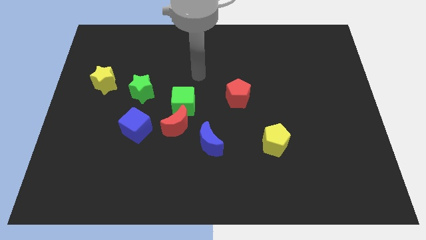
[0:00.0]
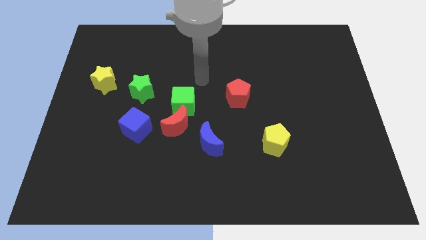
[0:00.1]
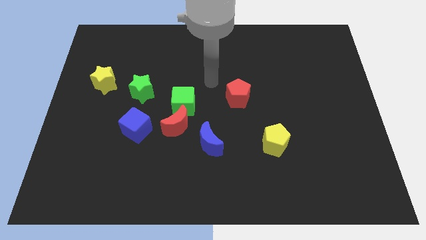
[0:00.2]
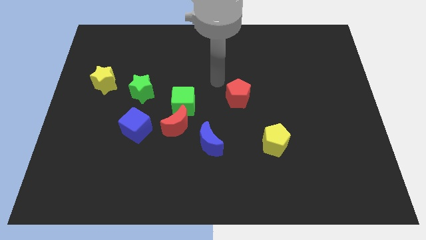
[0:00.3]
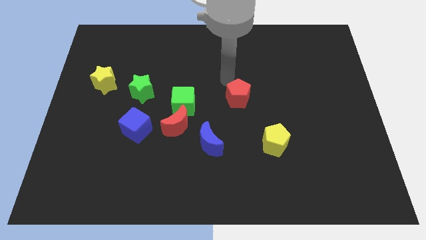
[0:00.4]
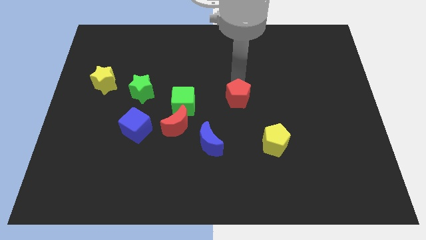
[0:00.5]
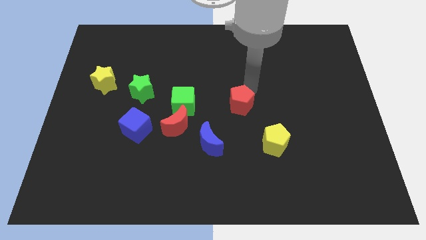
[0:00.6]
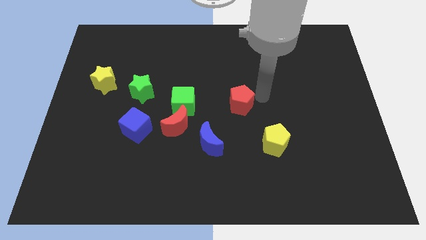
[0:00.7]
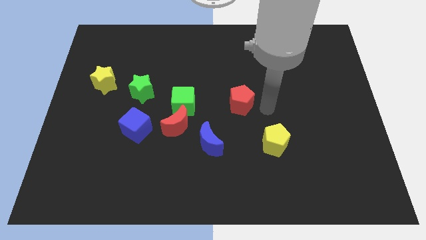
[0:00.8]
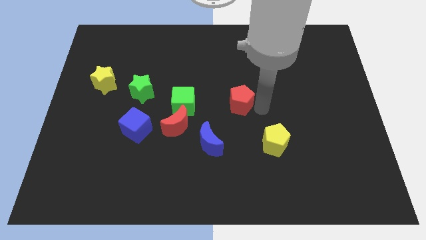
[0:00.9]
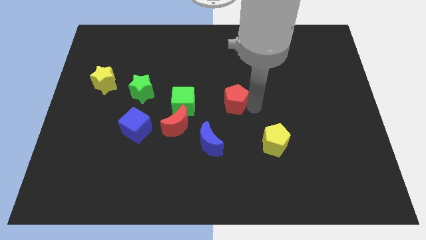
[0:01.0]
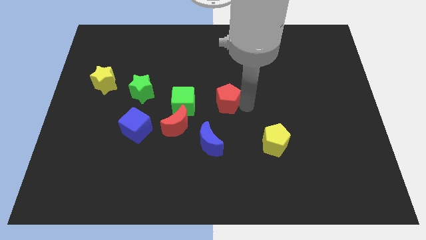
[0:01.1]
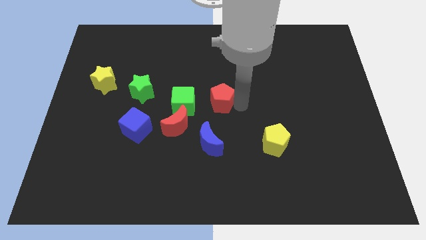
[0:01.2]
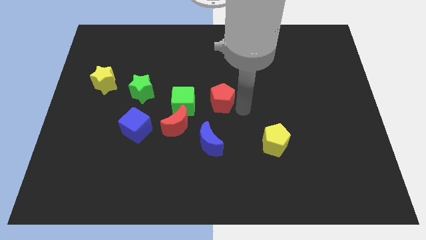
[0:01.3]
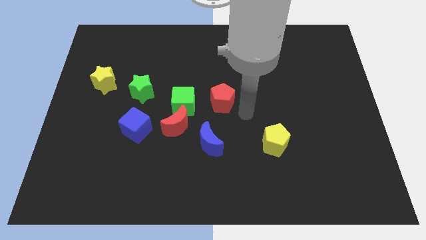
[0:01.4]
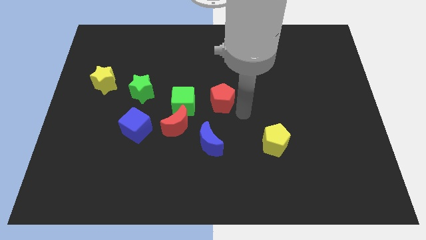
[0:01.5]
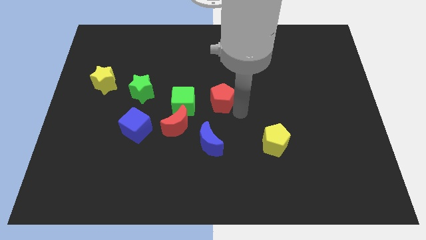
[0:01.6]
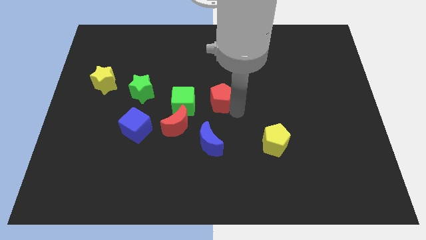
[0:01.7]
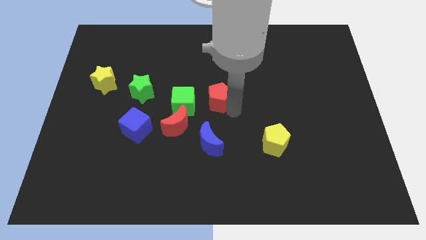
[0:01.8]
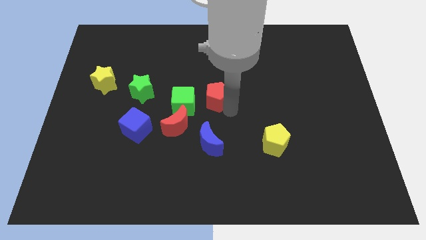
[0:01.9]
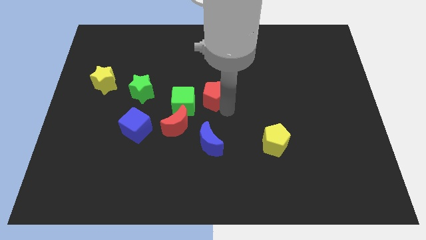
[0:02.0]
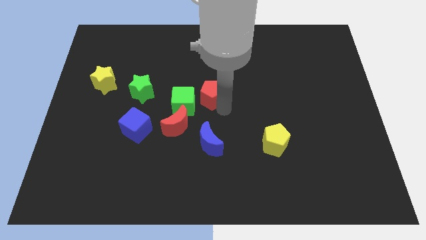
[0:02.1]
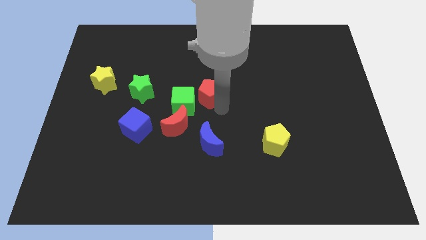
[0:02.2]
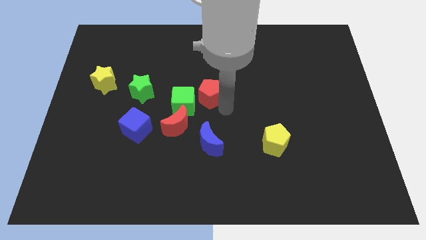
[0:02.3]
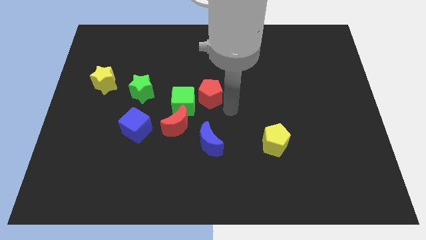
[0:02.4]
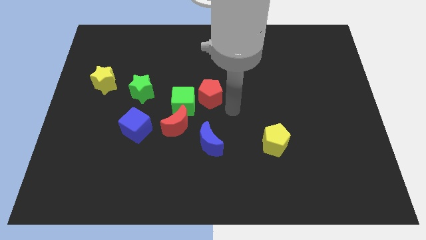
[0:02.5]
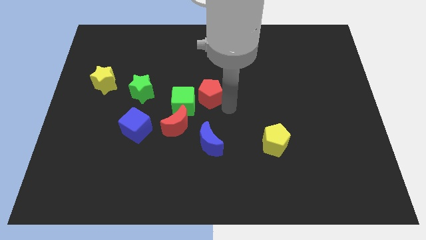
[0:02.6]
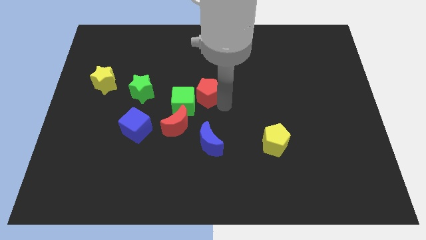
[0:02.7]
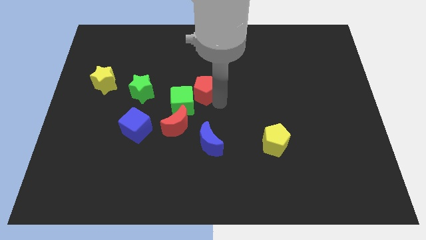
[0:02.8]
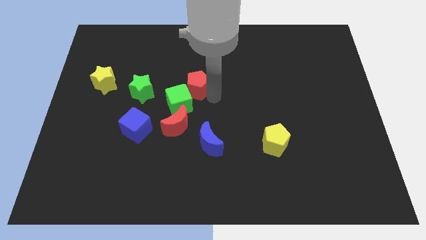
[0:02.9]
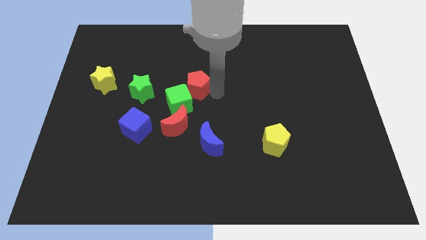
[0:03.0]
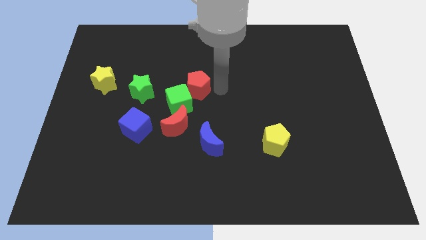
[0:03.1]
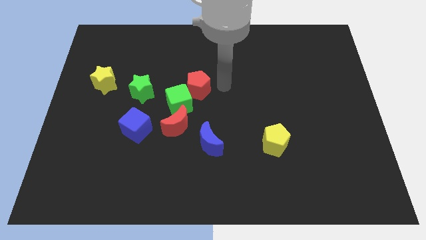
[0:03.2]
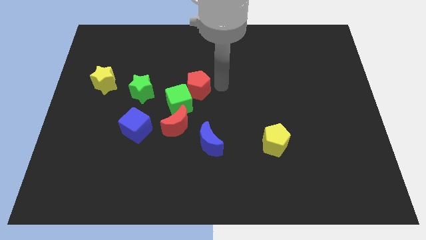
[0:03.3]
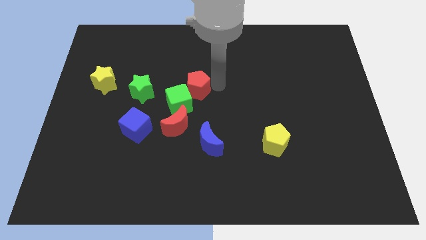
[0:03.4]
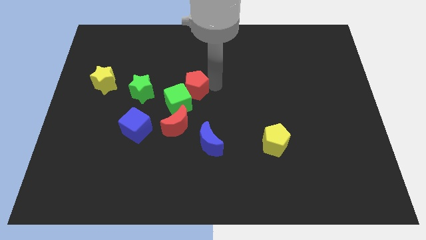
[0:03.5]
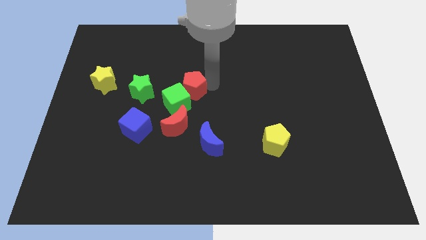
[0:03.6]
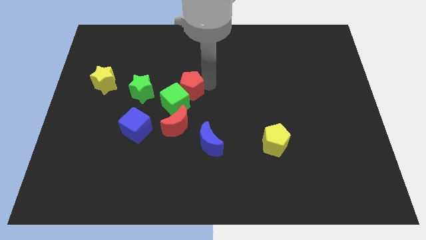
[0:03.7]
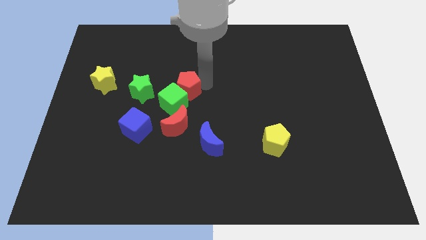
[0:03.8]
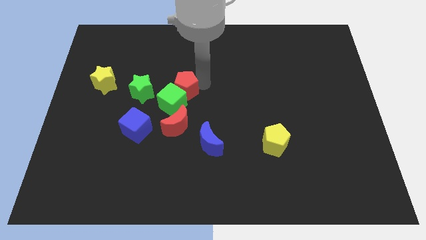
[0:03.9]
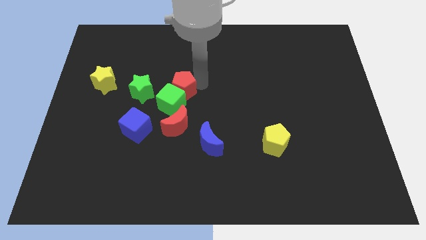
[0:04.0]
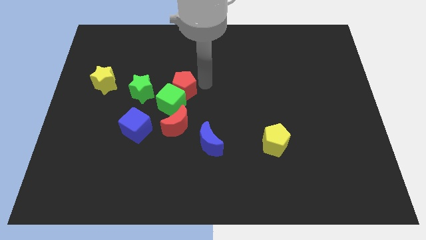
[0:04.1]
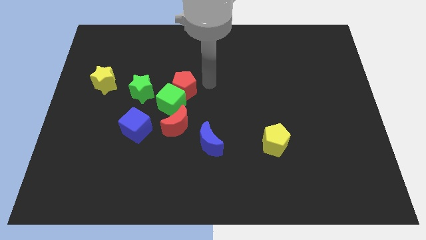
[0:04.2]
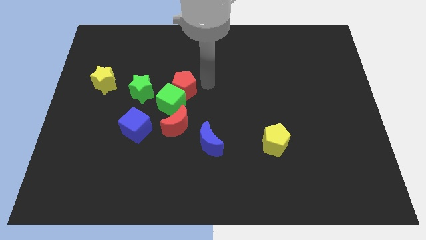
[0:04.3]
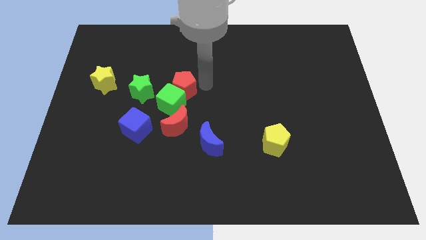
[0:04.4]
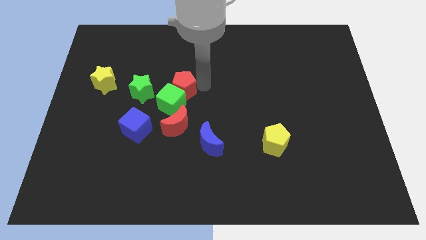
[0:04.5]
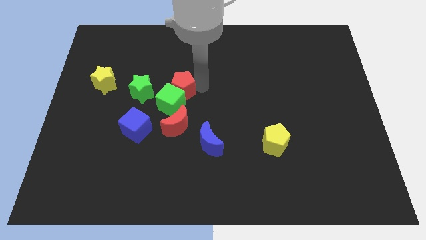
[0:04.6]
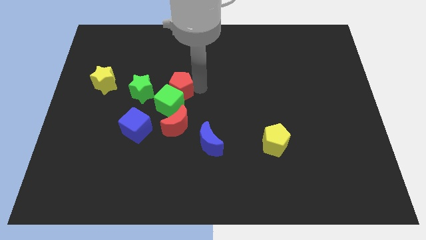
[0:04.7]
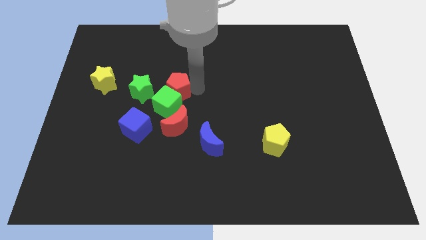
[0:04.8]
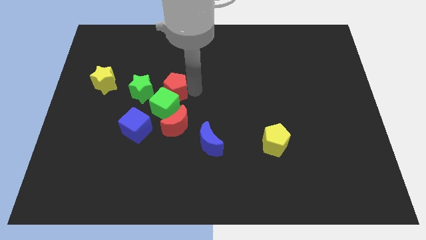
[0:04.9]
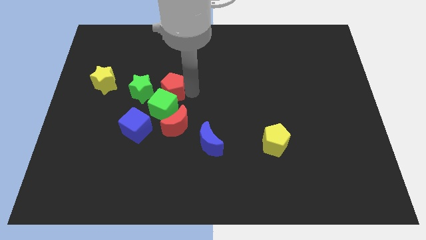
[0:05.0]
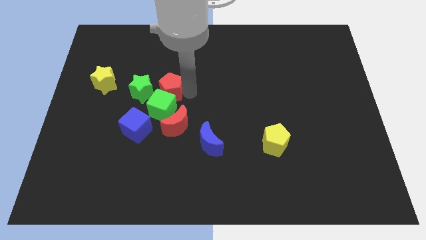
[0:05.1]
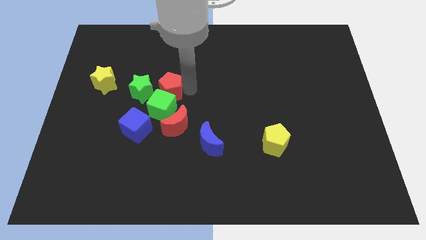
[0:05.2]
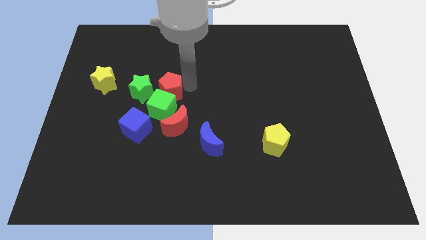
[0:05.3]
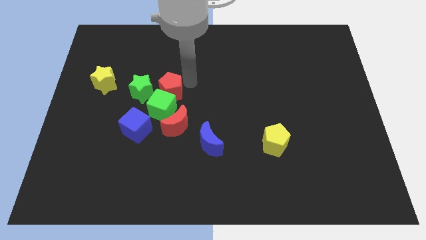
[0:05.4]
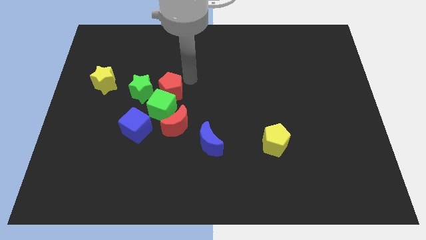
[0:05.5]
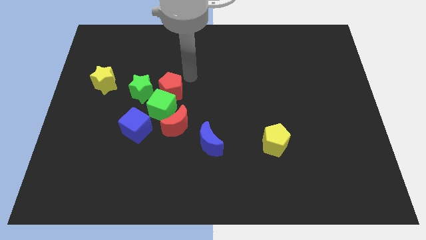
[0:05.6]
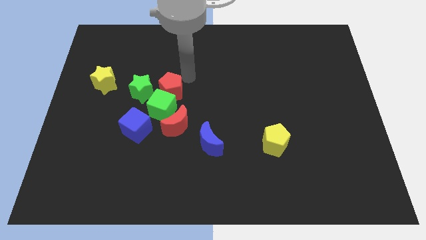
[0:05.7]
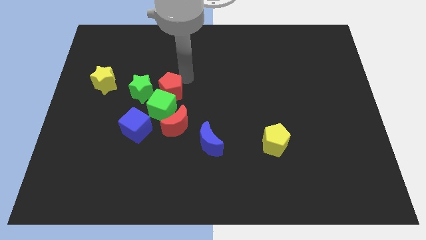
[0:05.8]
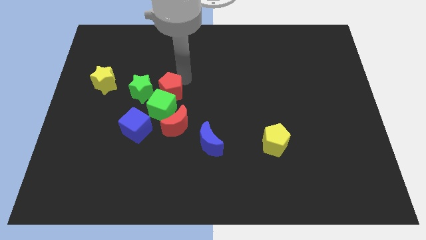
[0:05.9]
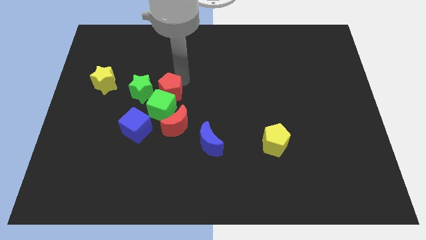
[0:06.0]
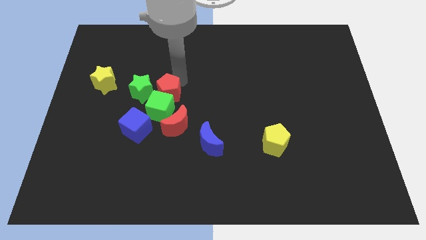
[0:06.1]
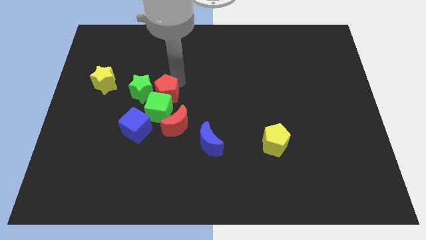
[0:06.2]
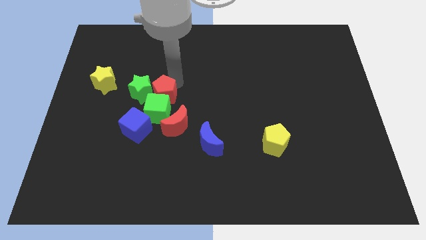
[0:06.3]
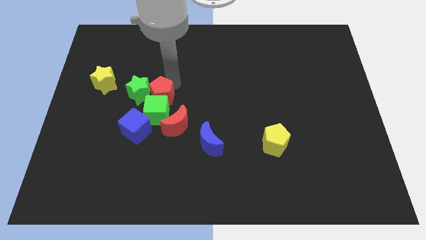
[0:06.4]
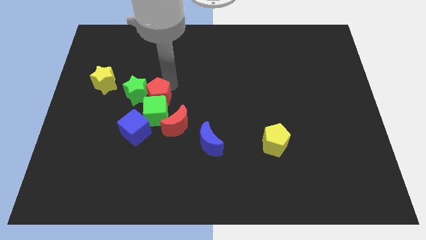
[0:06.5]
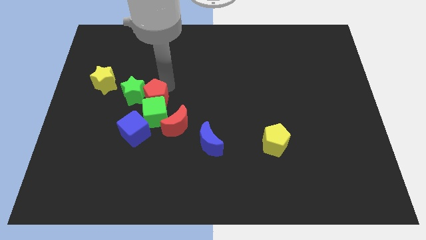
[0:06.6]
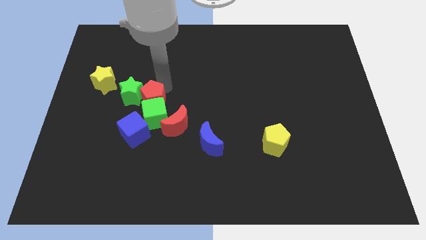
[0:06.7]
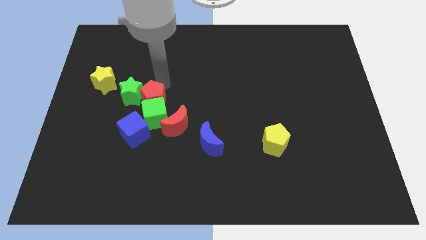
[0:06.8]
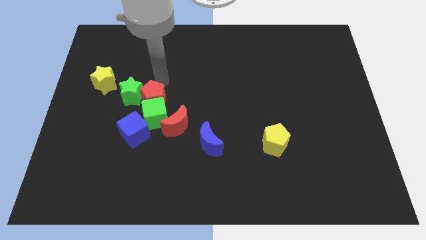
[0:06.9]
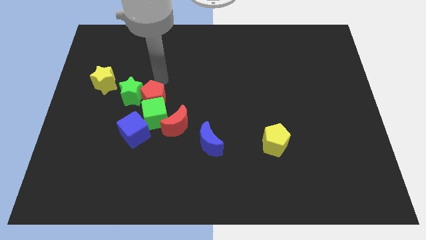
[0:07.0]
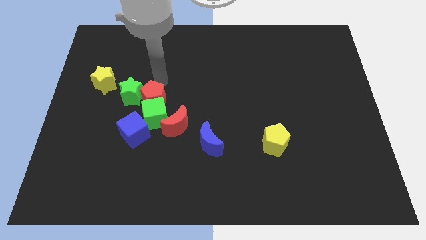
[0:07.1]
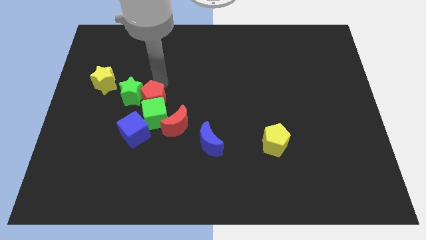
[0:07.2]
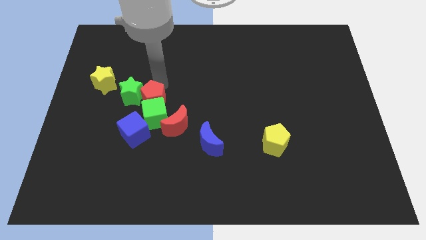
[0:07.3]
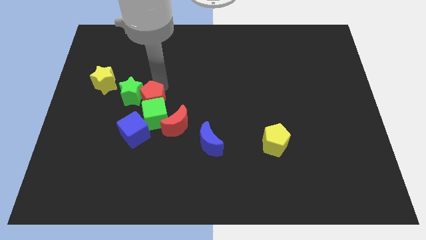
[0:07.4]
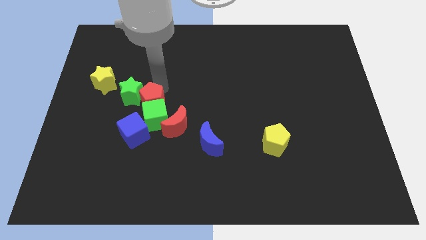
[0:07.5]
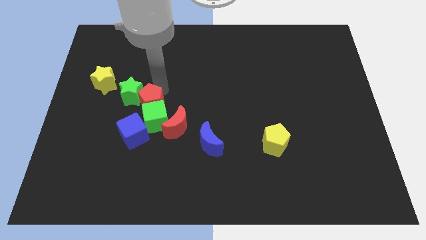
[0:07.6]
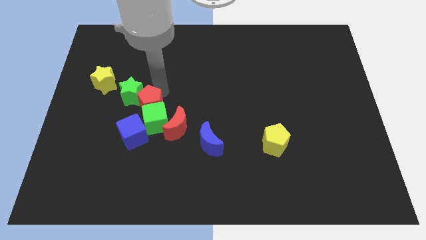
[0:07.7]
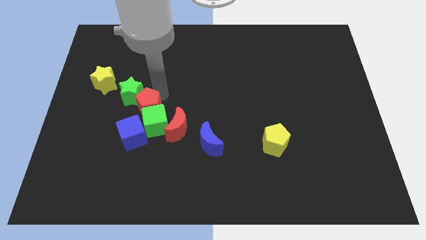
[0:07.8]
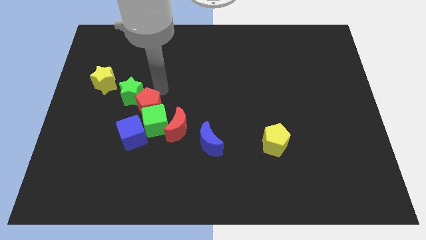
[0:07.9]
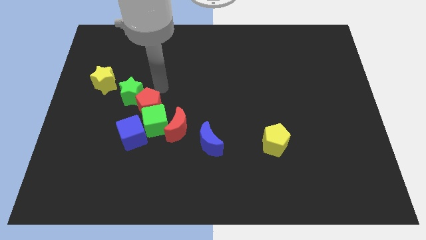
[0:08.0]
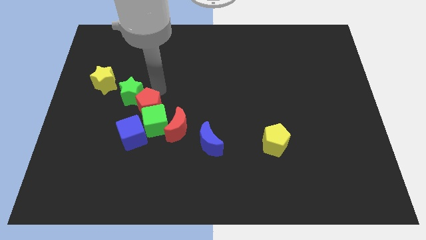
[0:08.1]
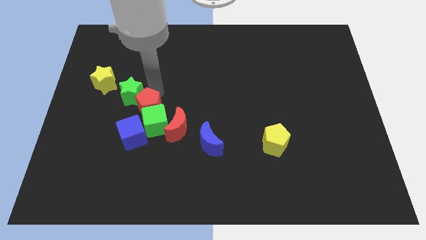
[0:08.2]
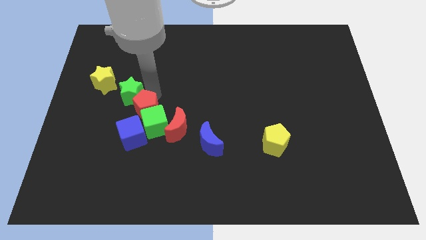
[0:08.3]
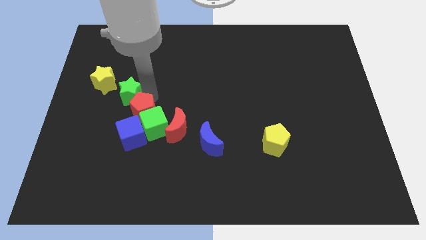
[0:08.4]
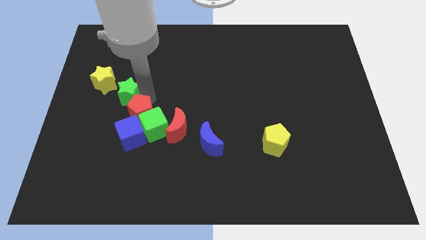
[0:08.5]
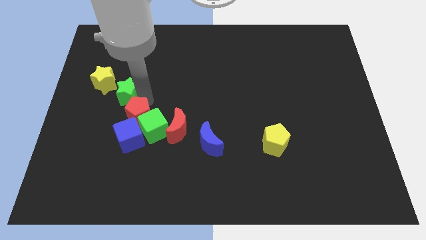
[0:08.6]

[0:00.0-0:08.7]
move the red pentagon next to the blue cube
